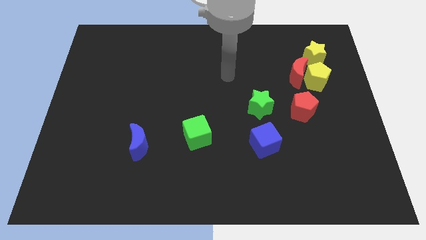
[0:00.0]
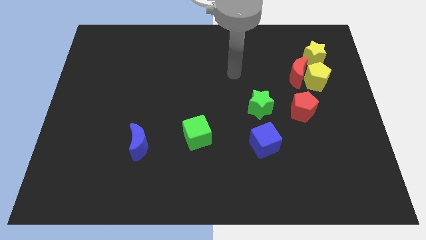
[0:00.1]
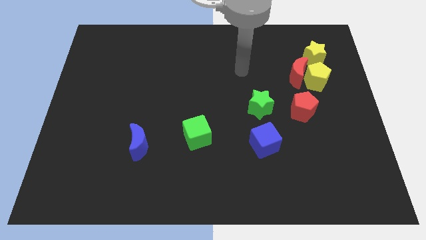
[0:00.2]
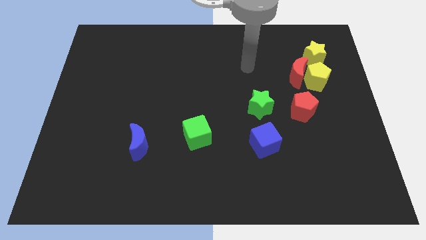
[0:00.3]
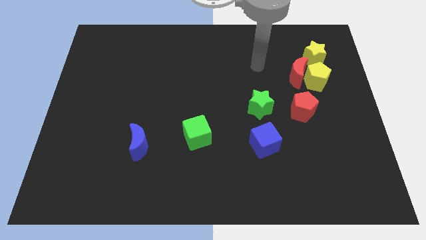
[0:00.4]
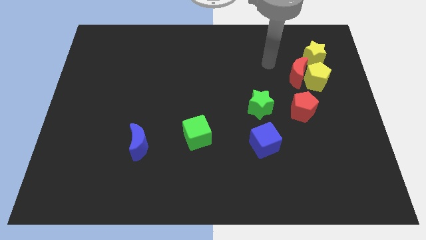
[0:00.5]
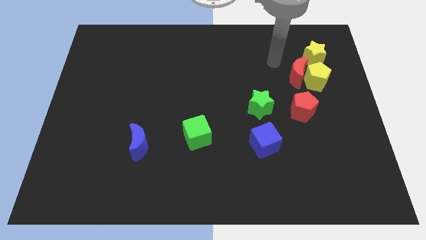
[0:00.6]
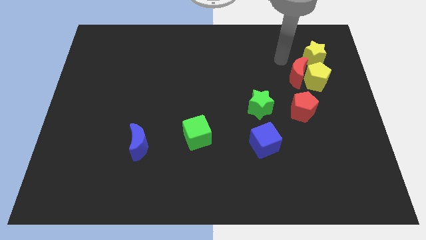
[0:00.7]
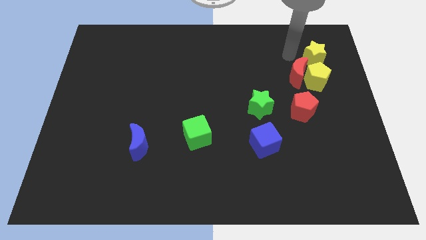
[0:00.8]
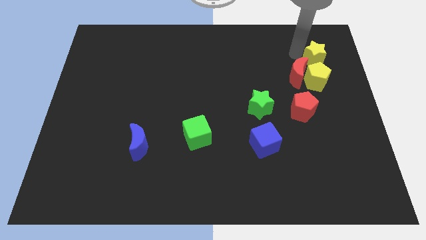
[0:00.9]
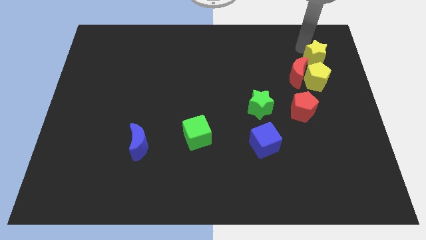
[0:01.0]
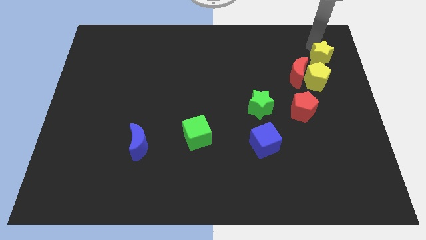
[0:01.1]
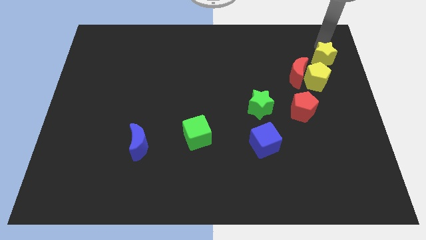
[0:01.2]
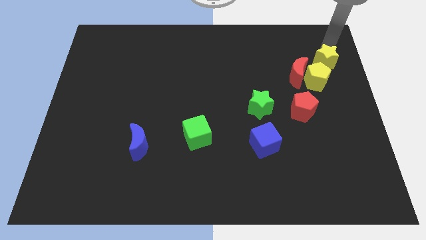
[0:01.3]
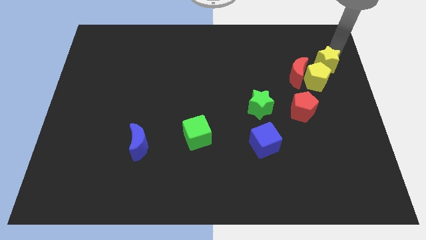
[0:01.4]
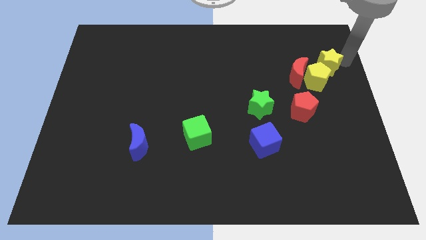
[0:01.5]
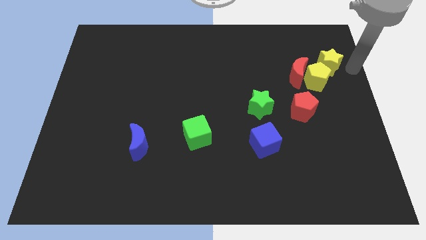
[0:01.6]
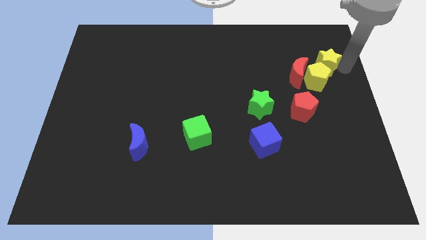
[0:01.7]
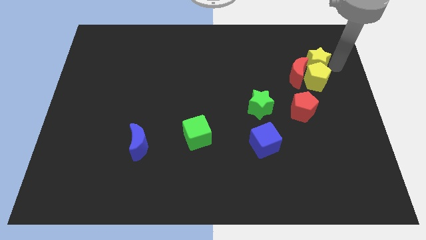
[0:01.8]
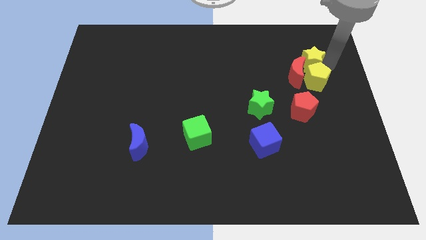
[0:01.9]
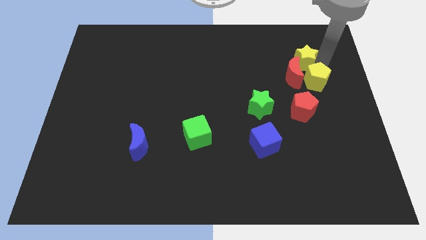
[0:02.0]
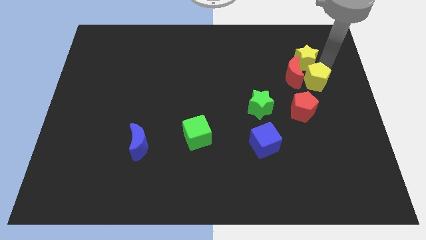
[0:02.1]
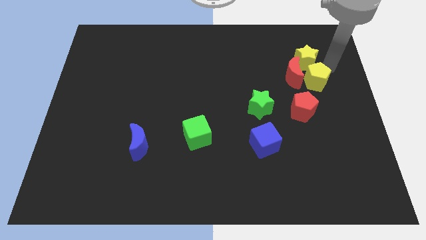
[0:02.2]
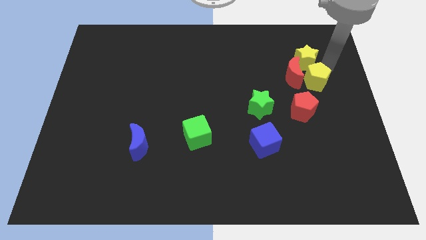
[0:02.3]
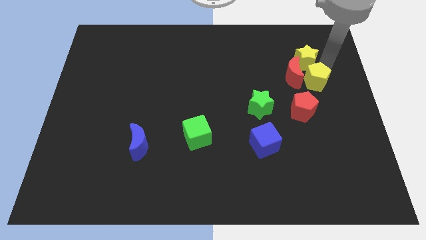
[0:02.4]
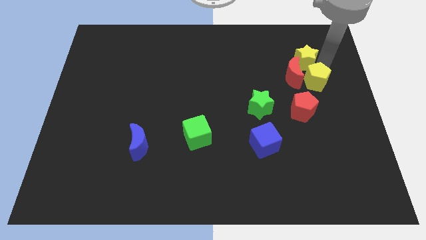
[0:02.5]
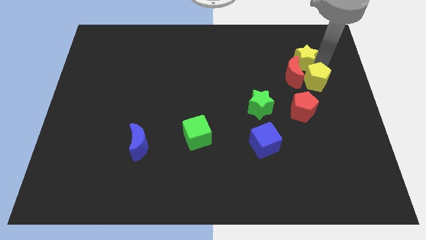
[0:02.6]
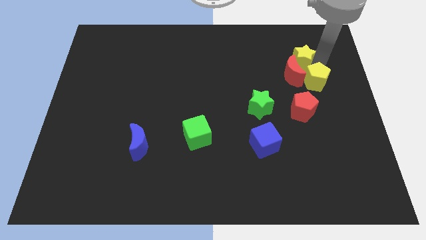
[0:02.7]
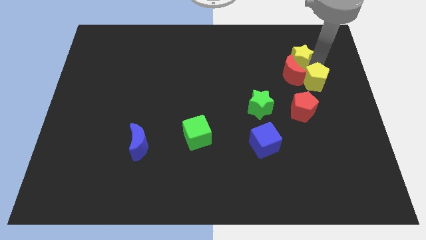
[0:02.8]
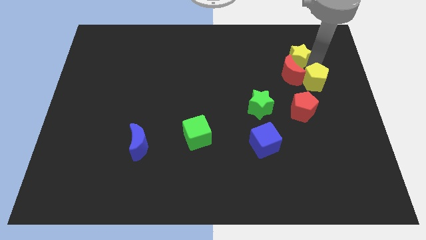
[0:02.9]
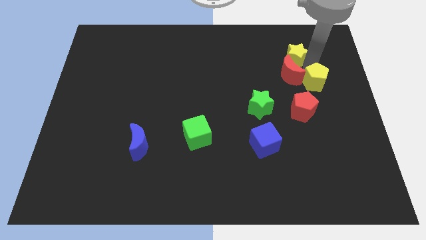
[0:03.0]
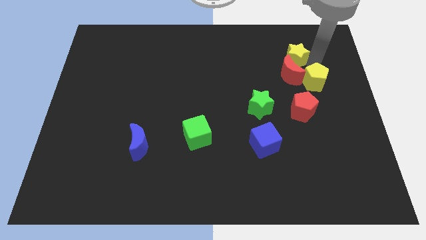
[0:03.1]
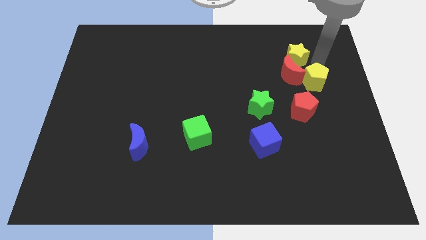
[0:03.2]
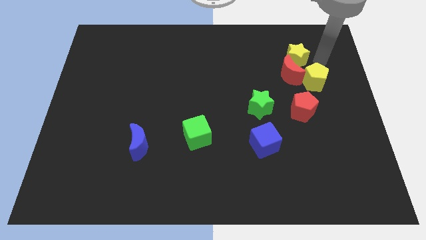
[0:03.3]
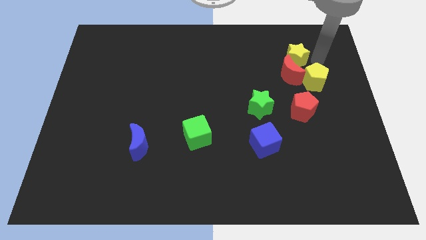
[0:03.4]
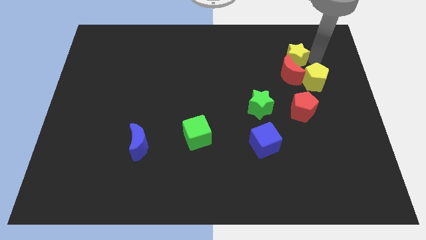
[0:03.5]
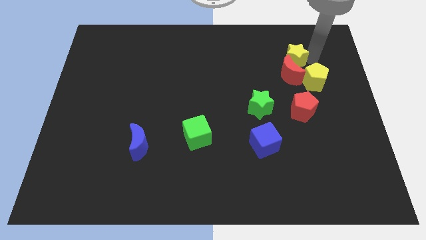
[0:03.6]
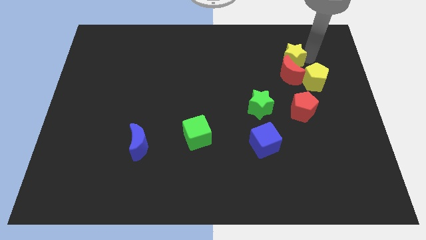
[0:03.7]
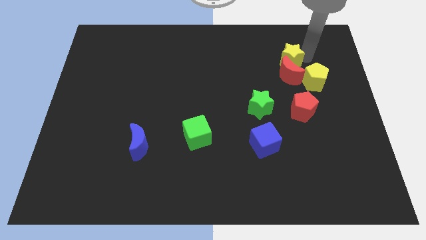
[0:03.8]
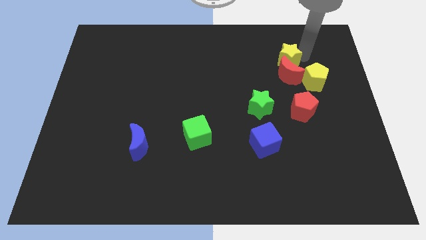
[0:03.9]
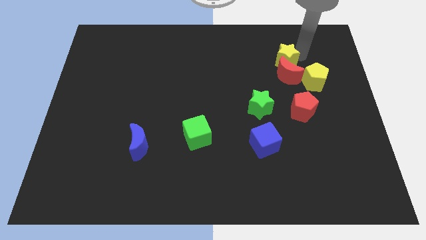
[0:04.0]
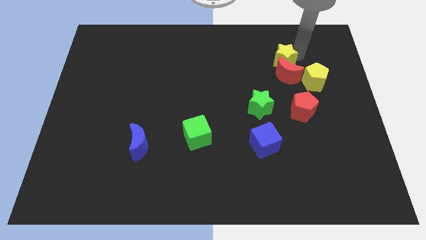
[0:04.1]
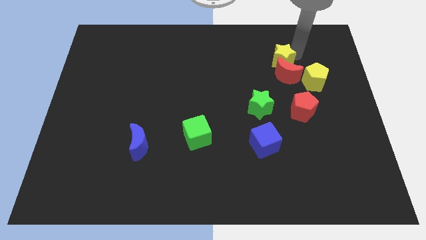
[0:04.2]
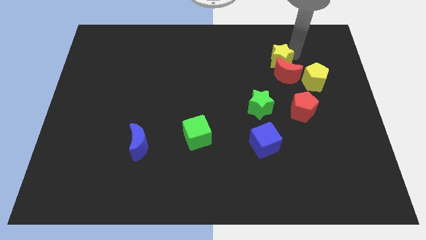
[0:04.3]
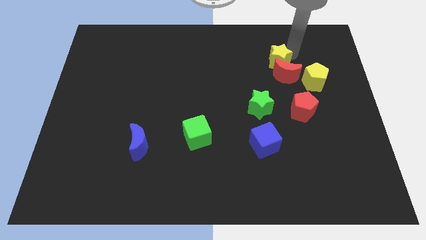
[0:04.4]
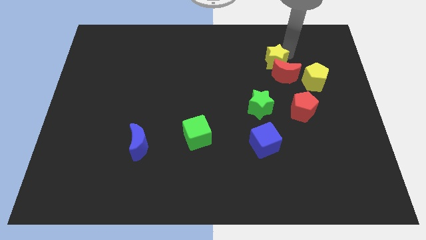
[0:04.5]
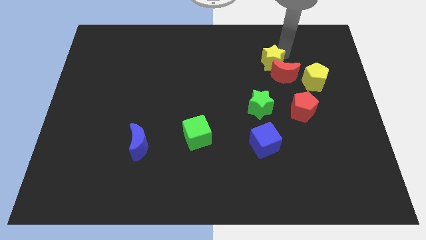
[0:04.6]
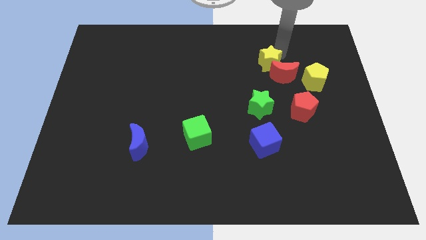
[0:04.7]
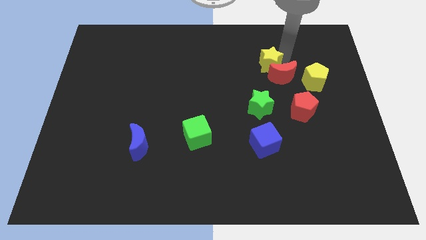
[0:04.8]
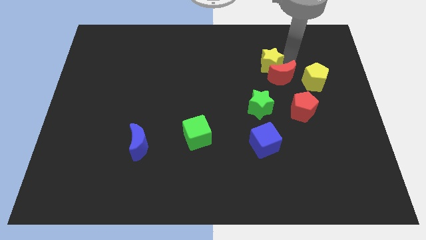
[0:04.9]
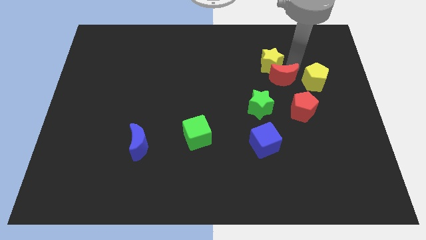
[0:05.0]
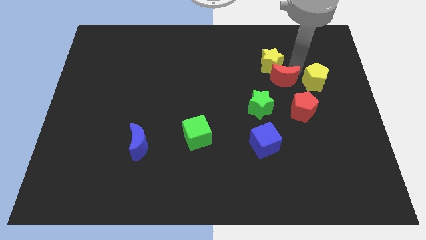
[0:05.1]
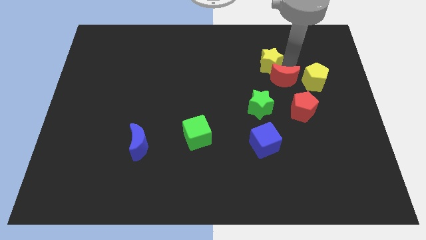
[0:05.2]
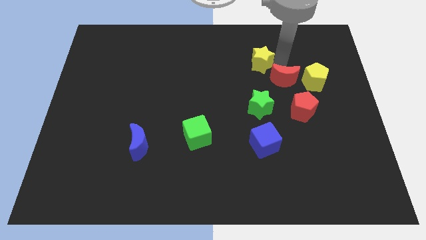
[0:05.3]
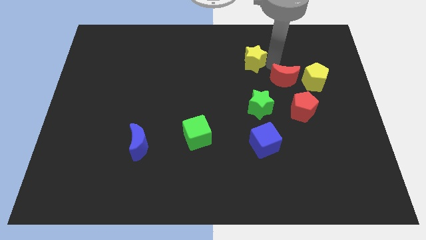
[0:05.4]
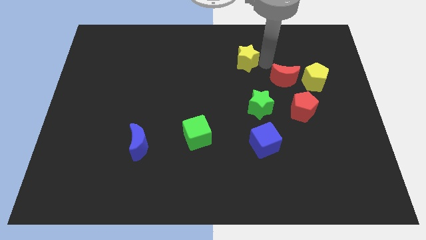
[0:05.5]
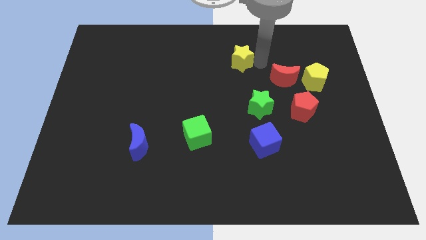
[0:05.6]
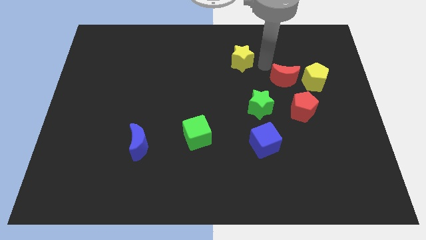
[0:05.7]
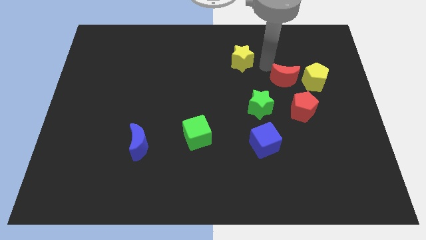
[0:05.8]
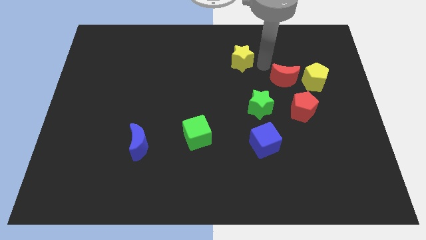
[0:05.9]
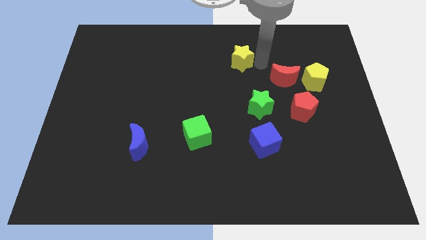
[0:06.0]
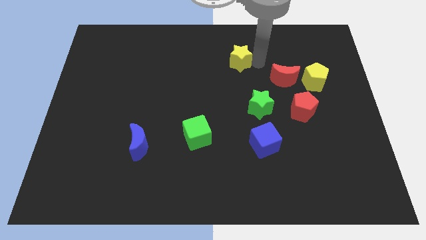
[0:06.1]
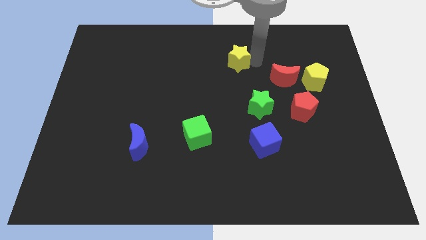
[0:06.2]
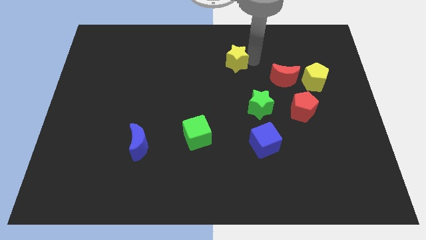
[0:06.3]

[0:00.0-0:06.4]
slide the yellow star left

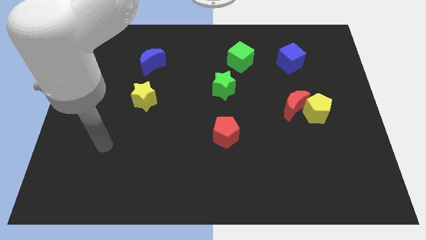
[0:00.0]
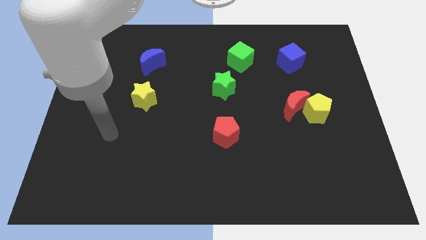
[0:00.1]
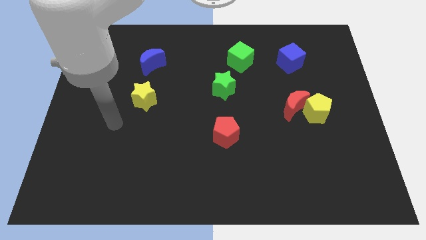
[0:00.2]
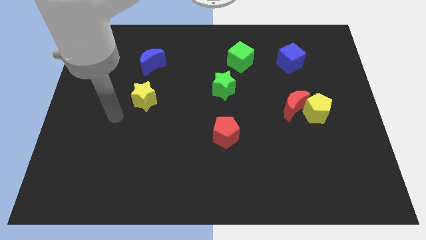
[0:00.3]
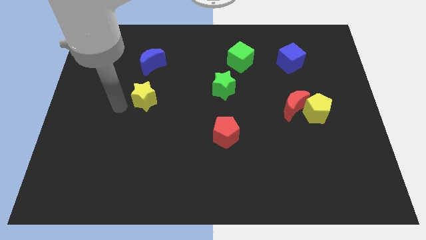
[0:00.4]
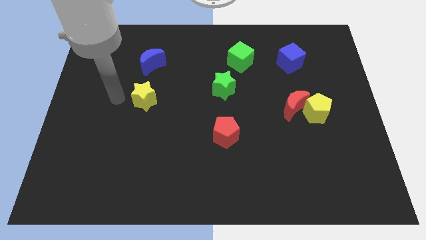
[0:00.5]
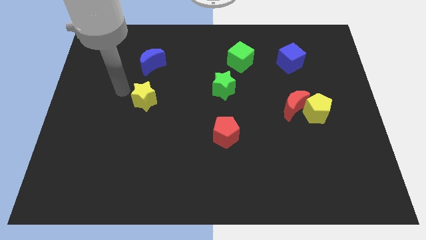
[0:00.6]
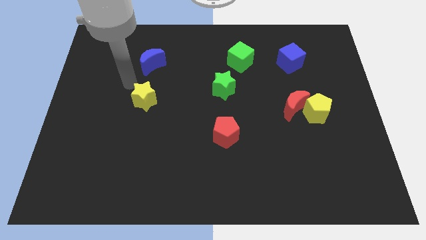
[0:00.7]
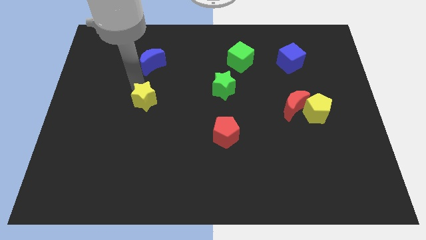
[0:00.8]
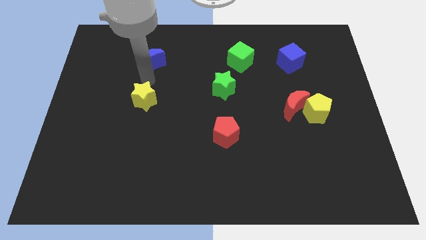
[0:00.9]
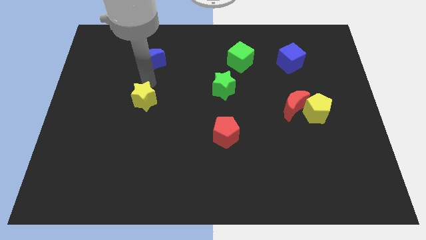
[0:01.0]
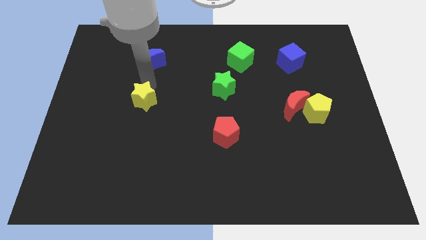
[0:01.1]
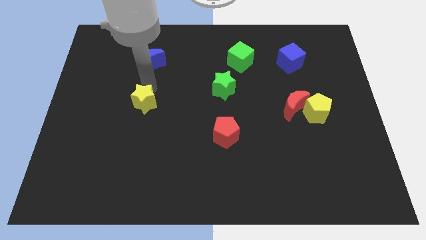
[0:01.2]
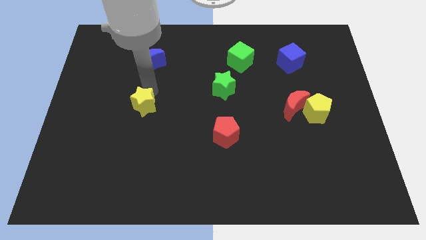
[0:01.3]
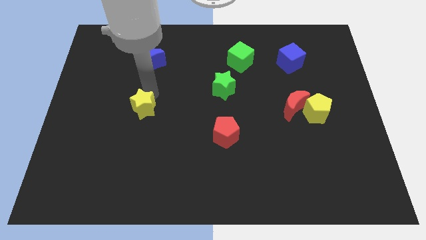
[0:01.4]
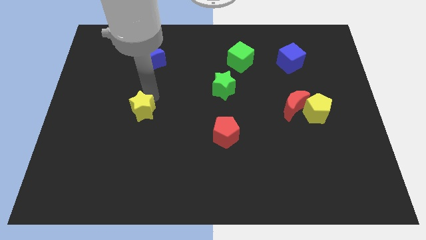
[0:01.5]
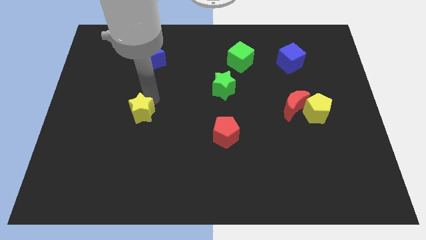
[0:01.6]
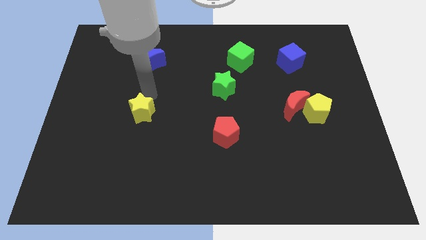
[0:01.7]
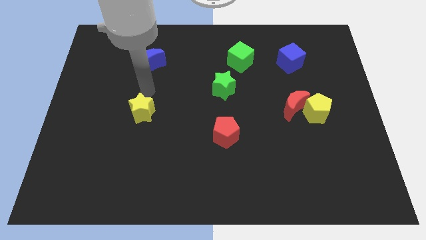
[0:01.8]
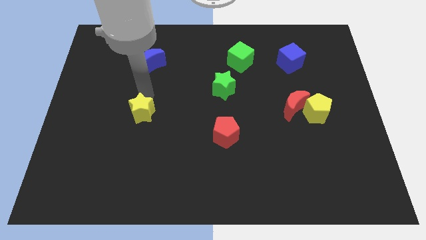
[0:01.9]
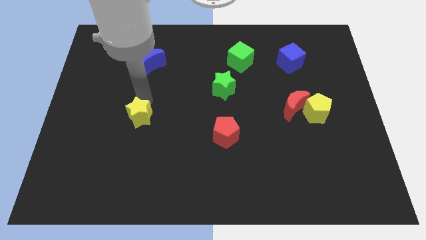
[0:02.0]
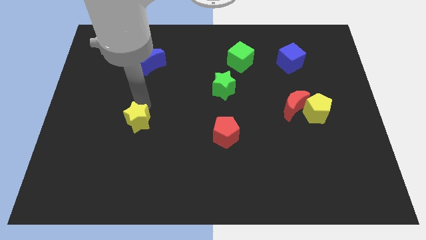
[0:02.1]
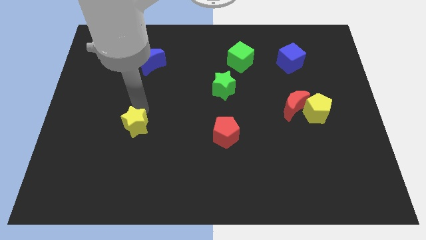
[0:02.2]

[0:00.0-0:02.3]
push the yellow star a little bit downwards
